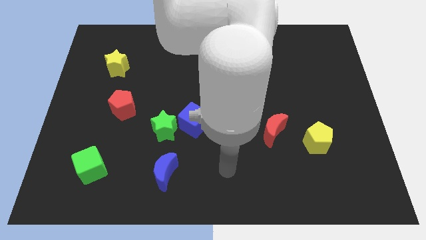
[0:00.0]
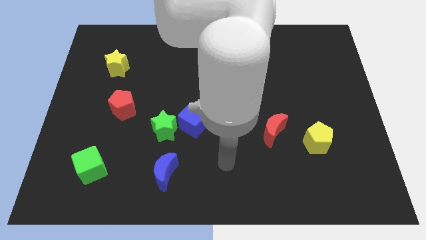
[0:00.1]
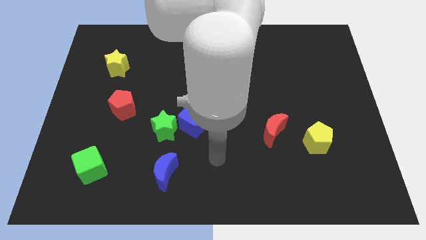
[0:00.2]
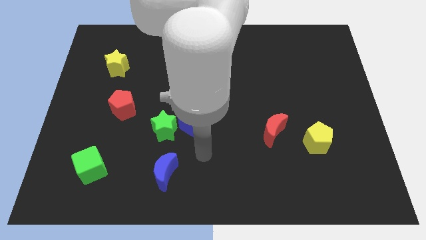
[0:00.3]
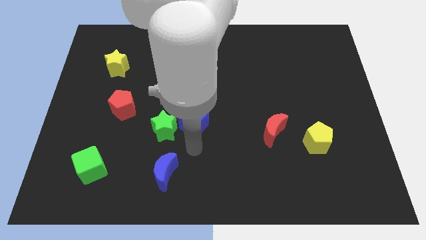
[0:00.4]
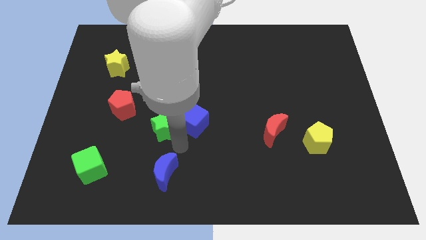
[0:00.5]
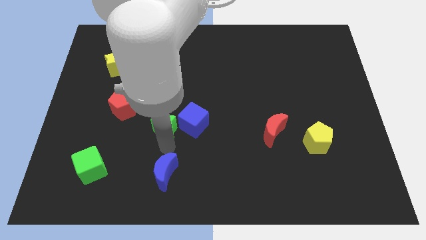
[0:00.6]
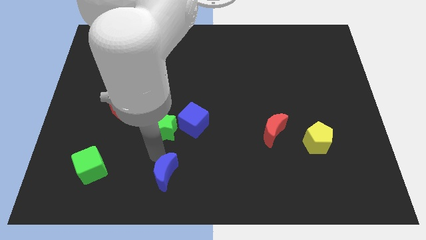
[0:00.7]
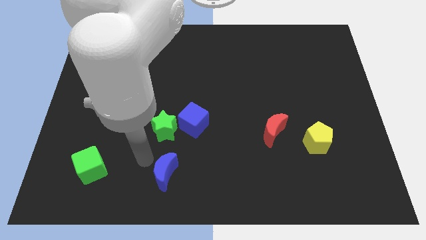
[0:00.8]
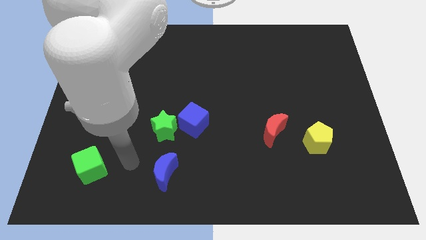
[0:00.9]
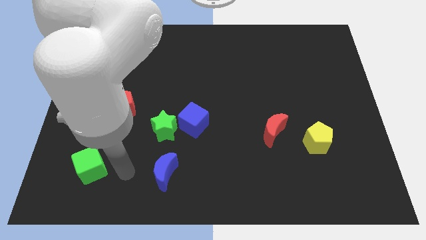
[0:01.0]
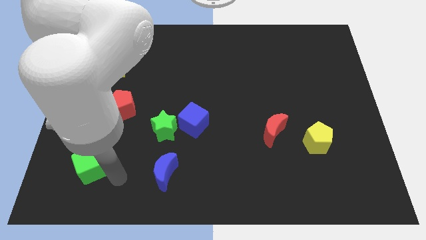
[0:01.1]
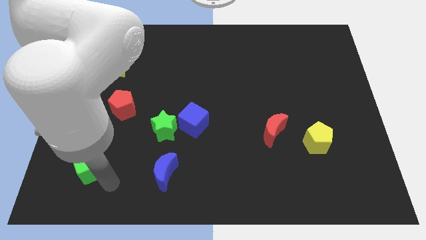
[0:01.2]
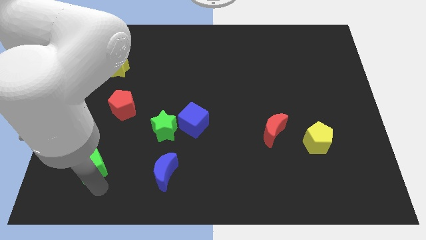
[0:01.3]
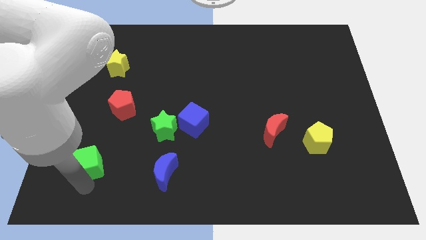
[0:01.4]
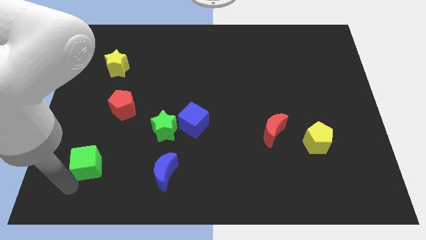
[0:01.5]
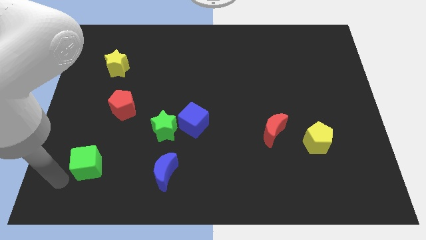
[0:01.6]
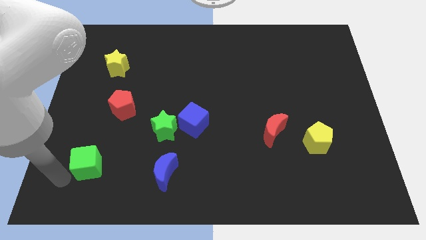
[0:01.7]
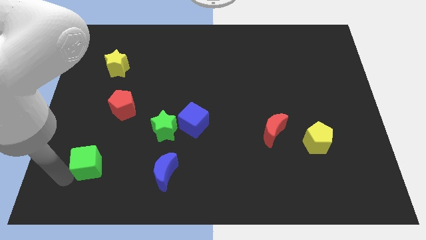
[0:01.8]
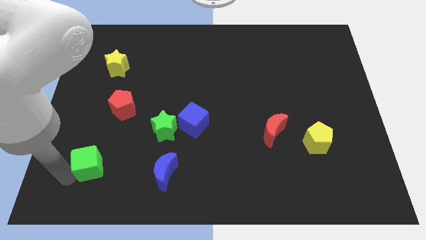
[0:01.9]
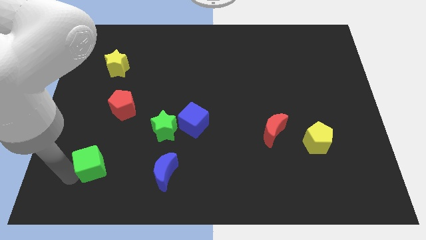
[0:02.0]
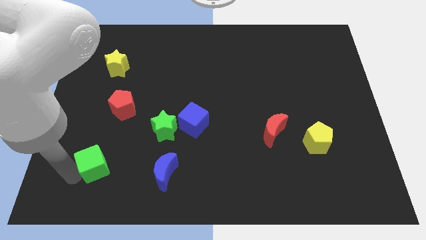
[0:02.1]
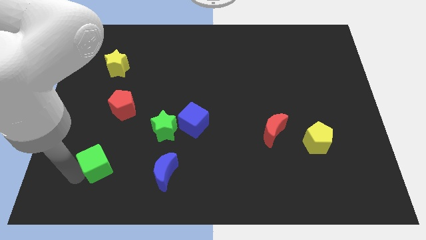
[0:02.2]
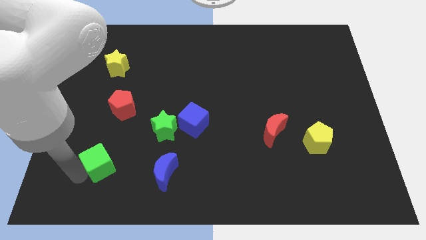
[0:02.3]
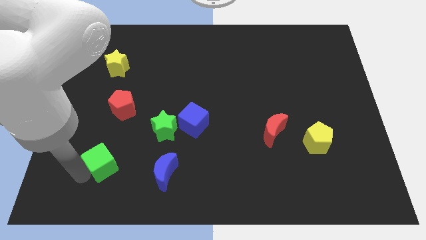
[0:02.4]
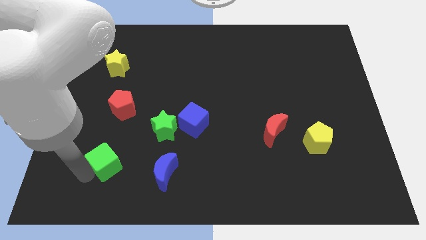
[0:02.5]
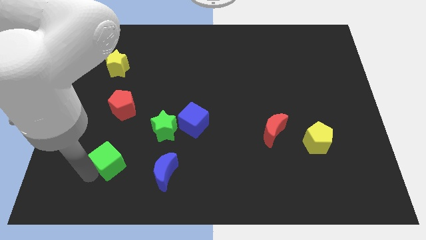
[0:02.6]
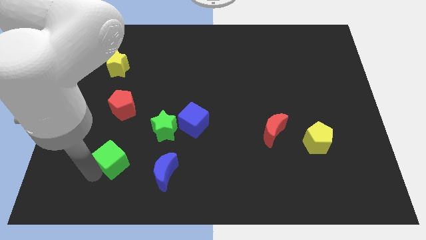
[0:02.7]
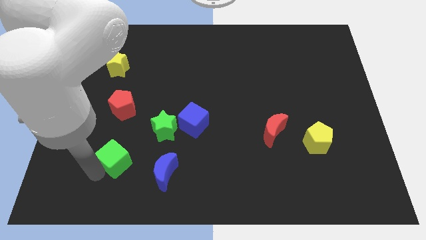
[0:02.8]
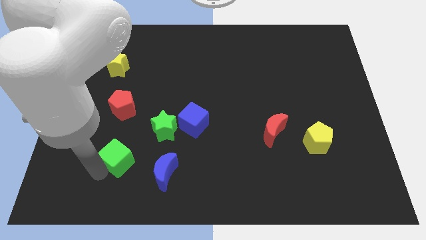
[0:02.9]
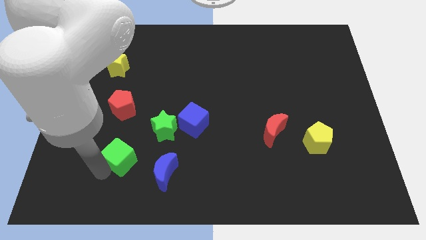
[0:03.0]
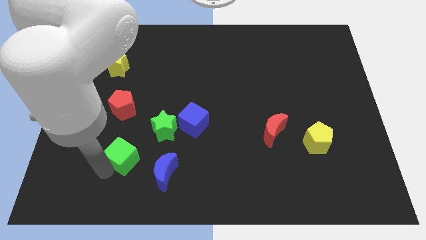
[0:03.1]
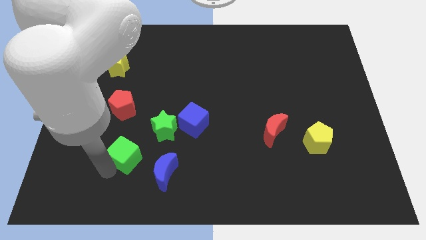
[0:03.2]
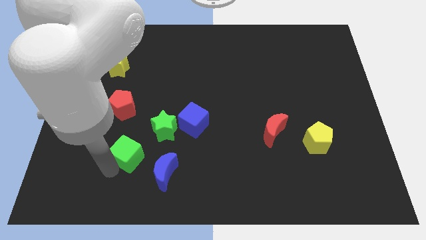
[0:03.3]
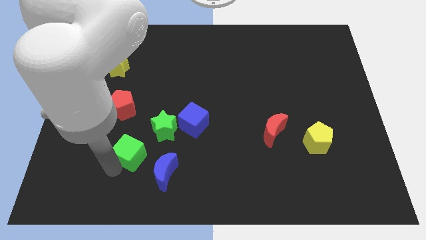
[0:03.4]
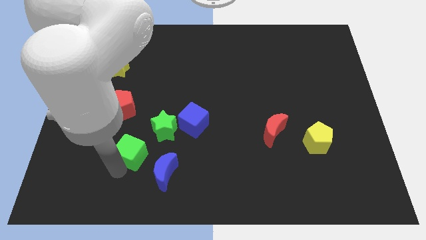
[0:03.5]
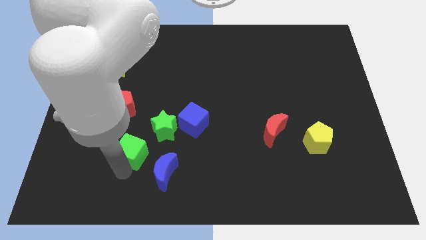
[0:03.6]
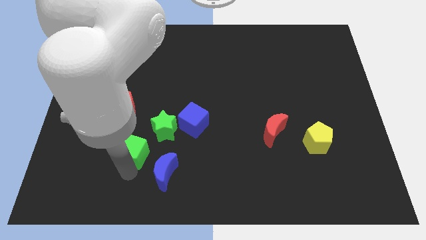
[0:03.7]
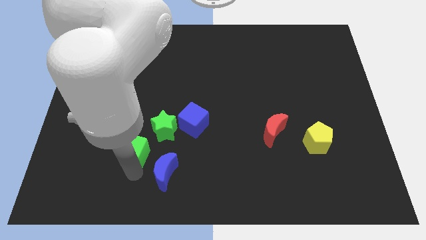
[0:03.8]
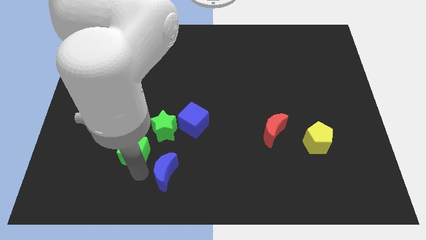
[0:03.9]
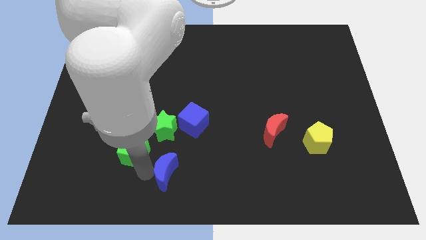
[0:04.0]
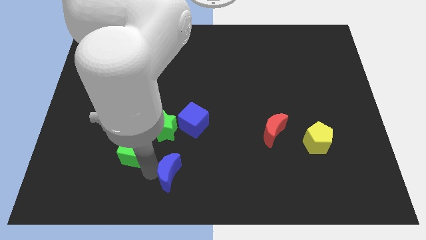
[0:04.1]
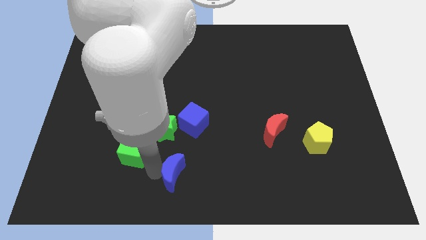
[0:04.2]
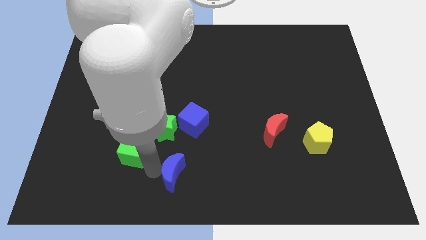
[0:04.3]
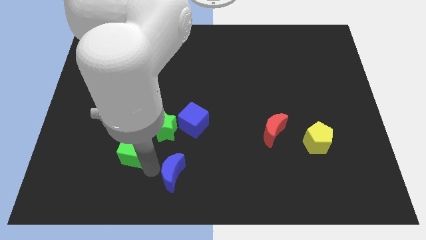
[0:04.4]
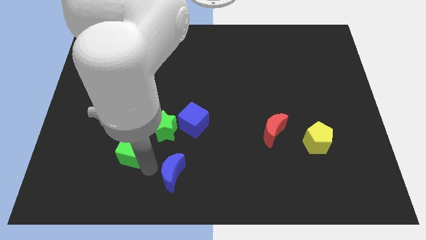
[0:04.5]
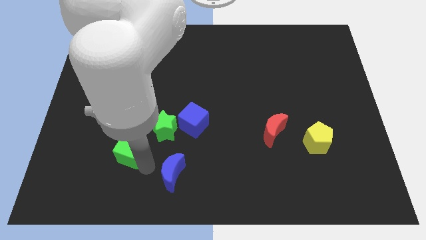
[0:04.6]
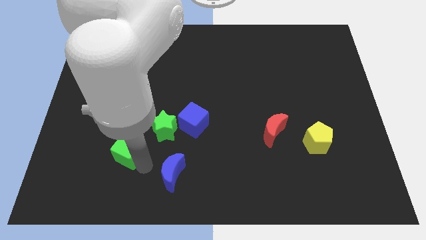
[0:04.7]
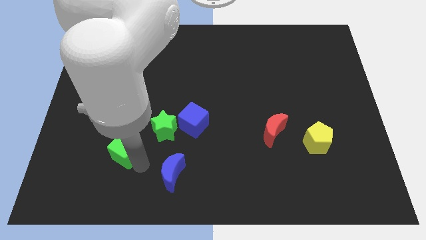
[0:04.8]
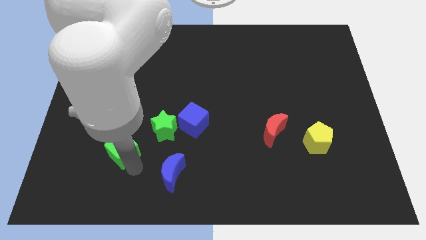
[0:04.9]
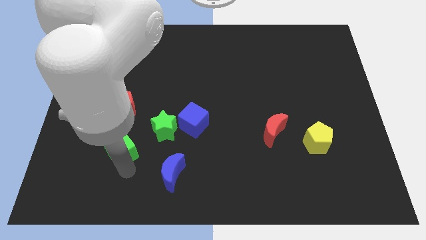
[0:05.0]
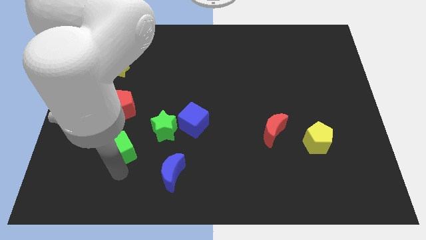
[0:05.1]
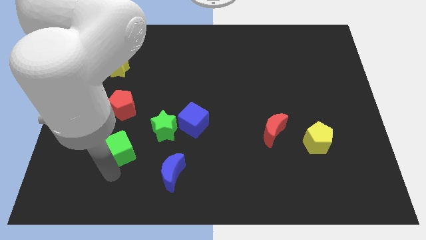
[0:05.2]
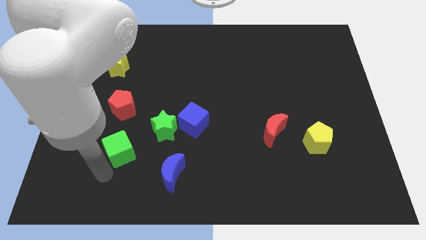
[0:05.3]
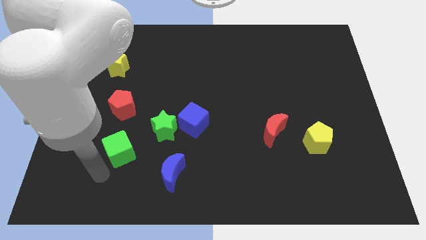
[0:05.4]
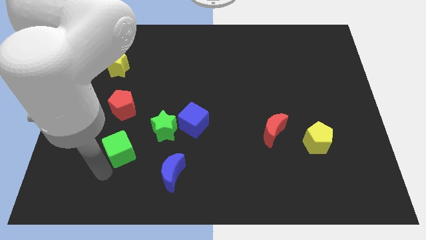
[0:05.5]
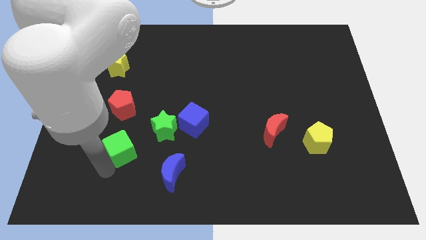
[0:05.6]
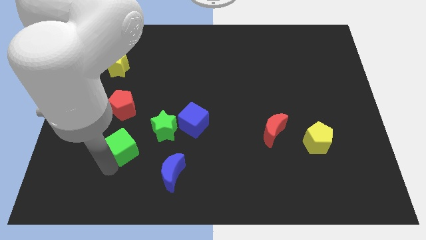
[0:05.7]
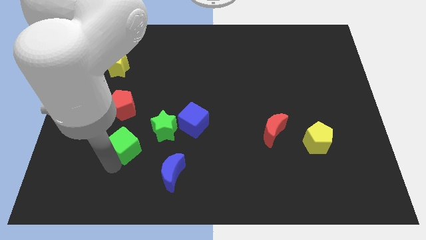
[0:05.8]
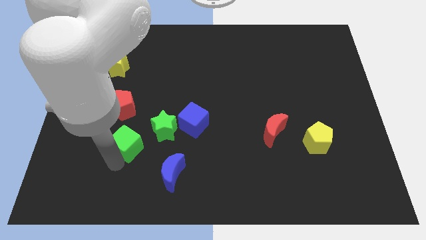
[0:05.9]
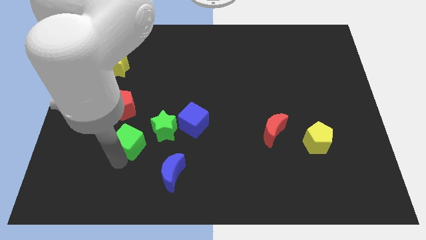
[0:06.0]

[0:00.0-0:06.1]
slide the green cube to the bottom right side of the red pentagon

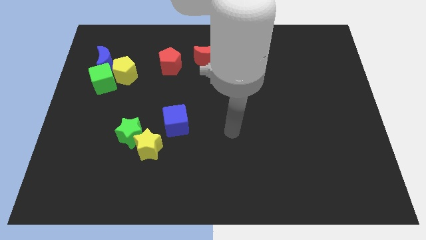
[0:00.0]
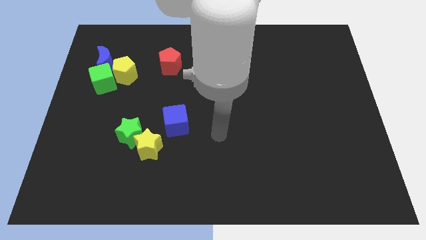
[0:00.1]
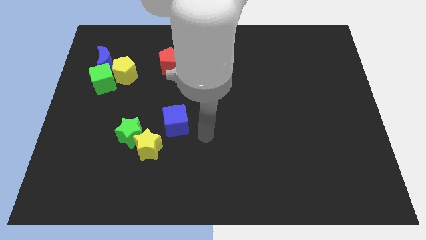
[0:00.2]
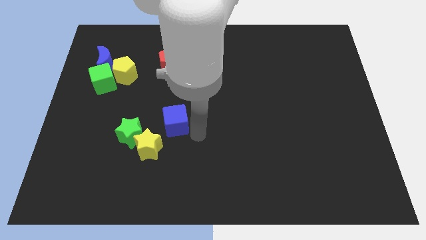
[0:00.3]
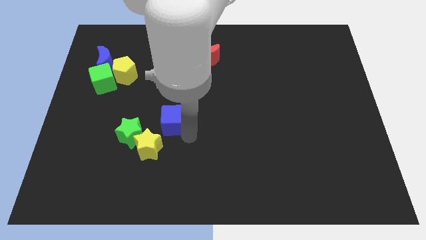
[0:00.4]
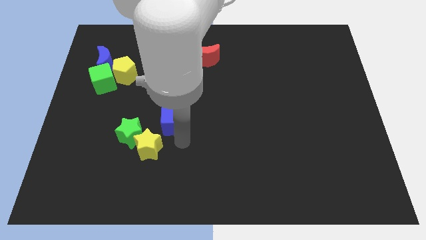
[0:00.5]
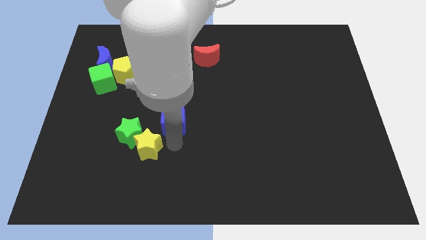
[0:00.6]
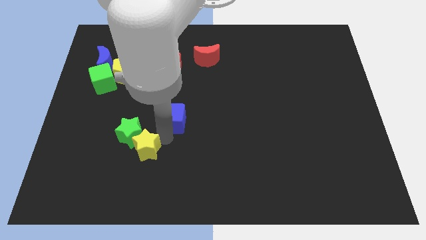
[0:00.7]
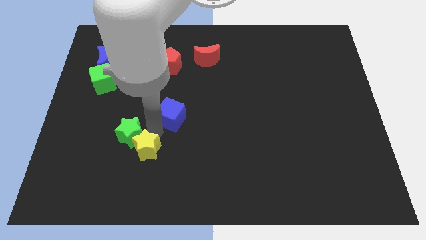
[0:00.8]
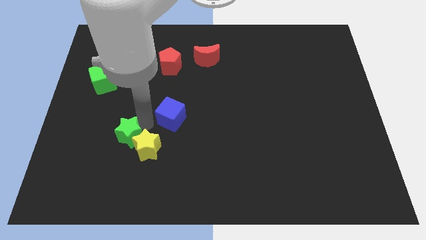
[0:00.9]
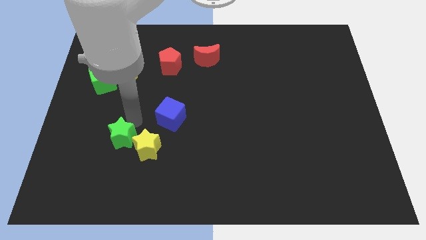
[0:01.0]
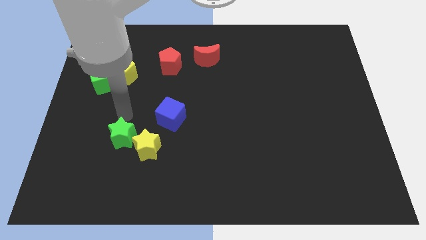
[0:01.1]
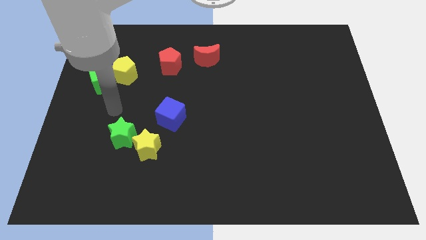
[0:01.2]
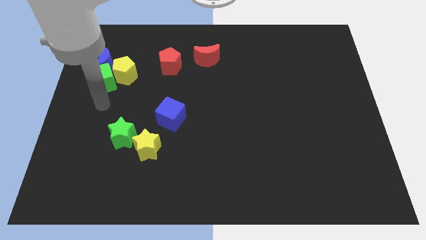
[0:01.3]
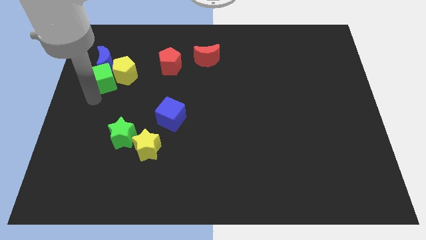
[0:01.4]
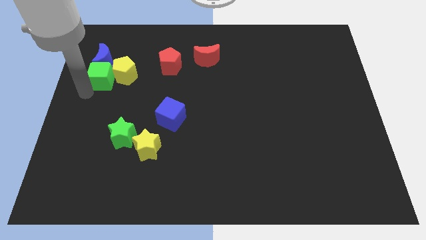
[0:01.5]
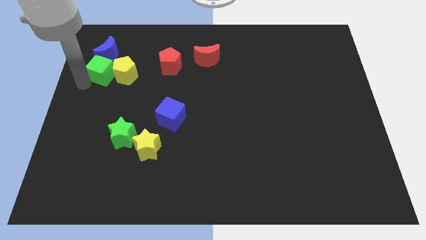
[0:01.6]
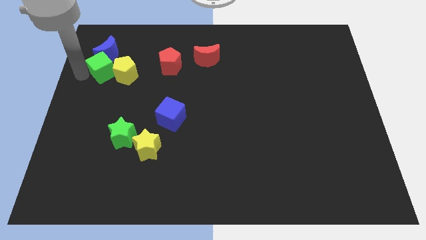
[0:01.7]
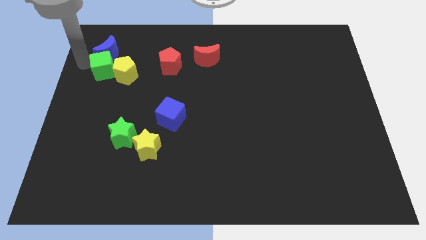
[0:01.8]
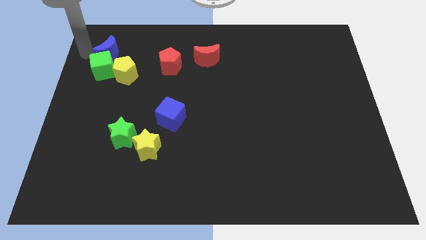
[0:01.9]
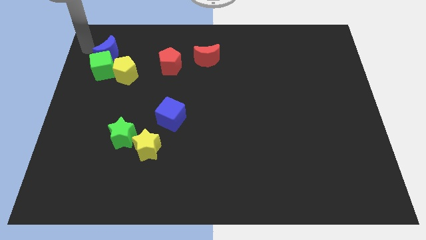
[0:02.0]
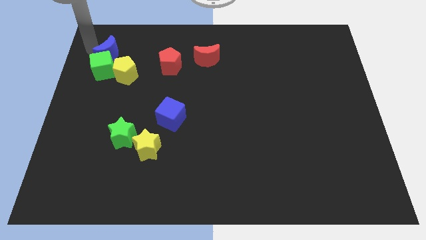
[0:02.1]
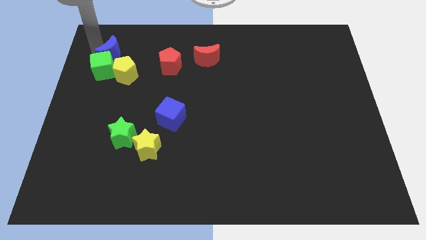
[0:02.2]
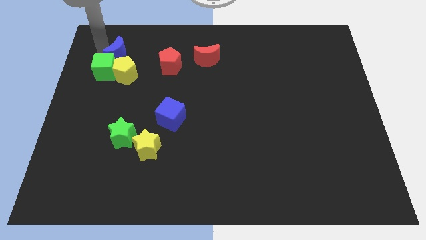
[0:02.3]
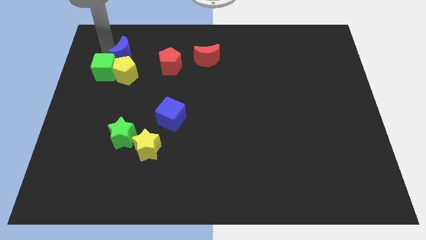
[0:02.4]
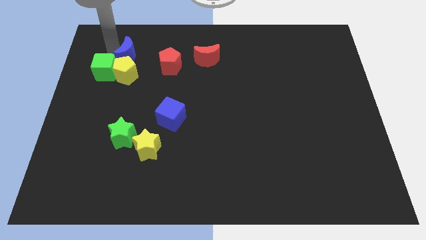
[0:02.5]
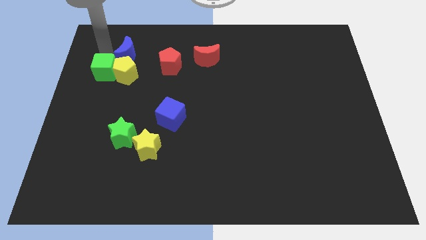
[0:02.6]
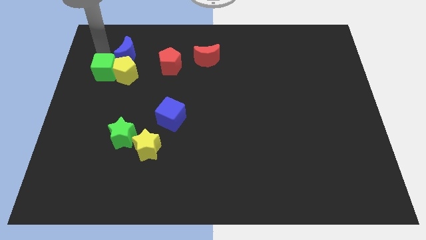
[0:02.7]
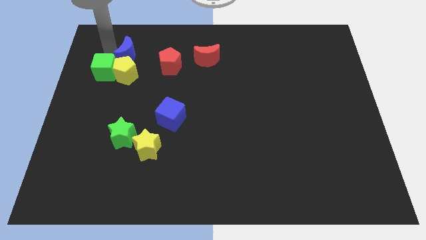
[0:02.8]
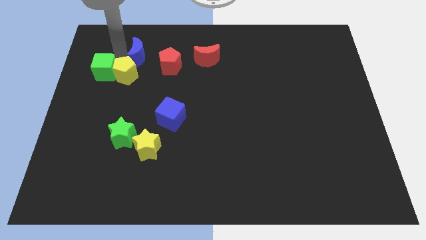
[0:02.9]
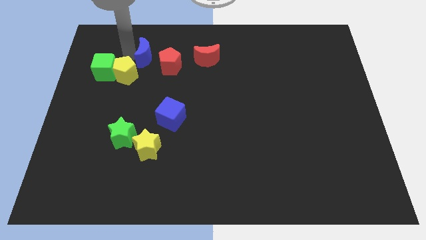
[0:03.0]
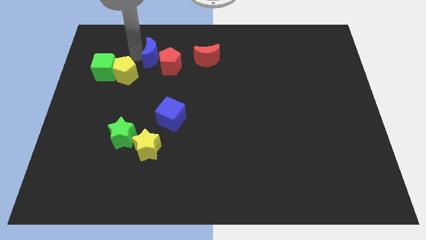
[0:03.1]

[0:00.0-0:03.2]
push the blue moon left of the red moon
